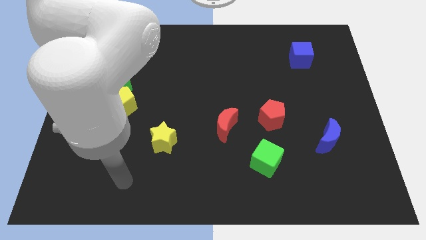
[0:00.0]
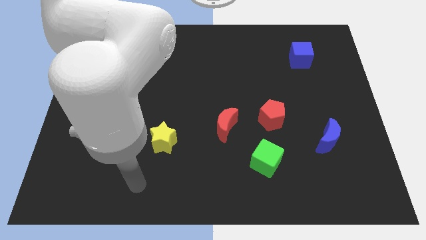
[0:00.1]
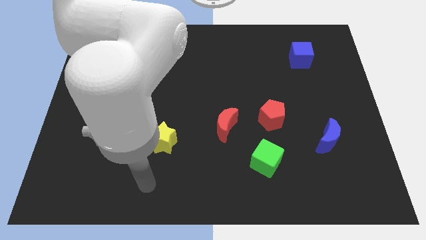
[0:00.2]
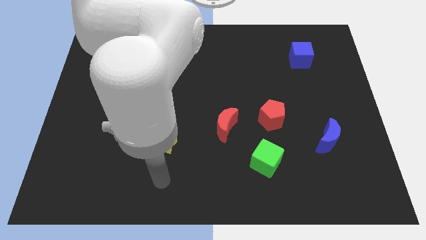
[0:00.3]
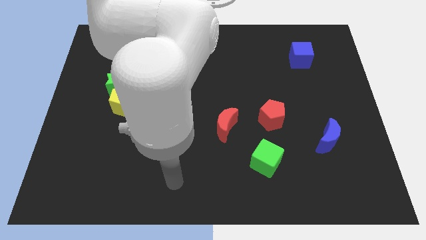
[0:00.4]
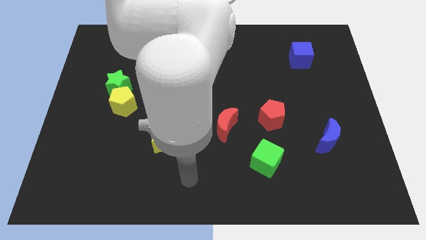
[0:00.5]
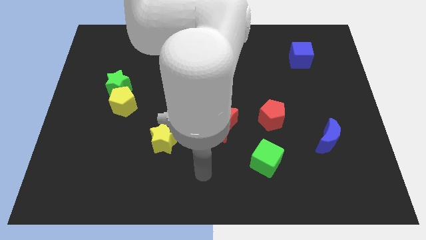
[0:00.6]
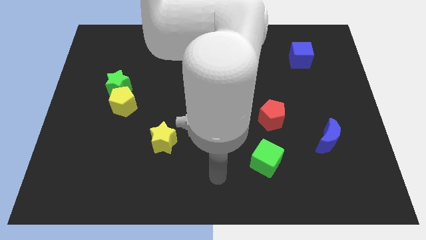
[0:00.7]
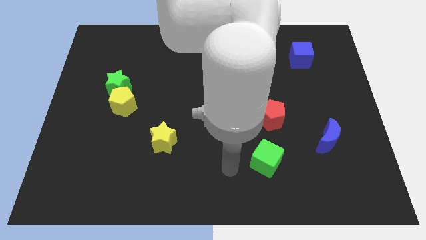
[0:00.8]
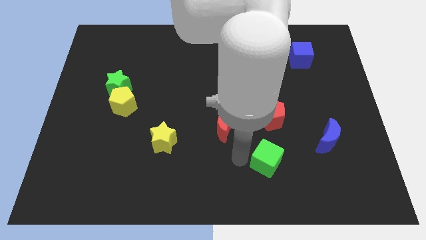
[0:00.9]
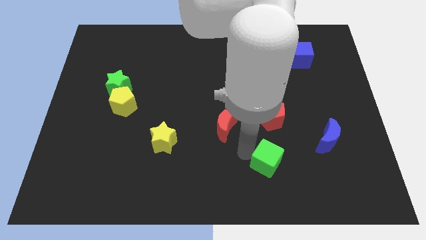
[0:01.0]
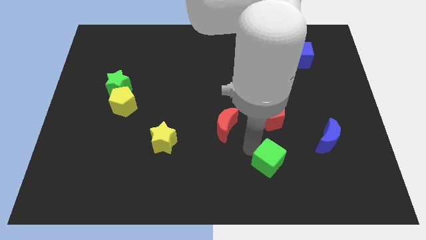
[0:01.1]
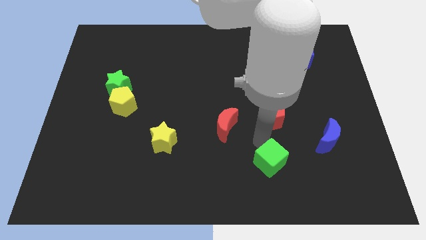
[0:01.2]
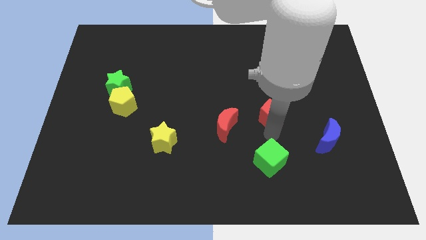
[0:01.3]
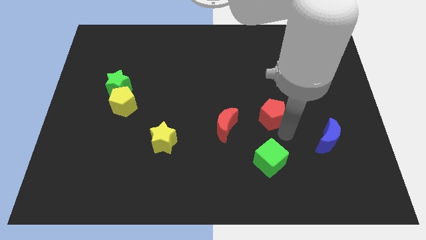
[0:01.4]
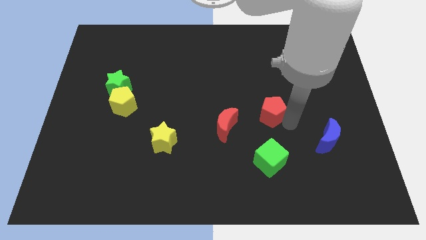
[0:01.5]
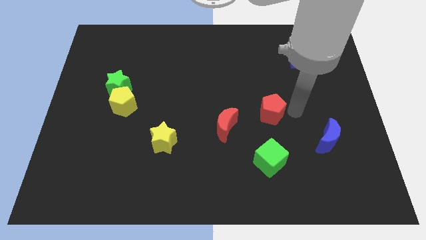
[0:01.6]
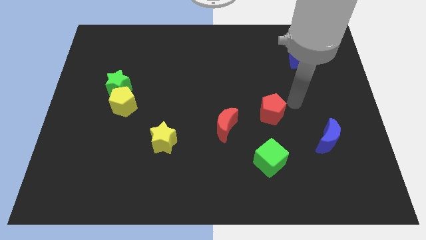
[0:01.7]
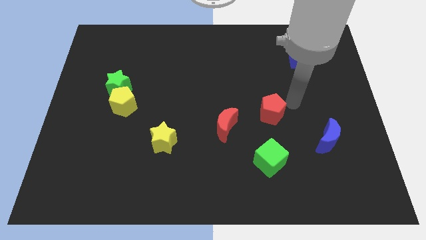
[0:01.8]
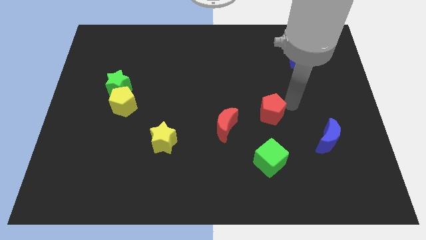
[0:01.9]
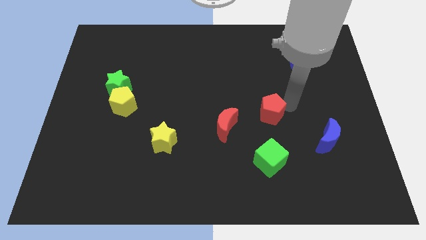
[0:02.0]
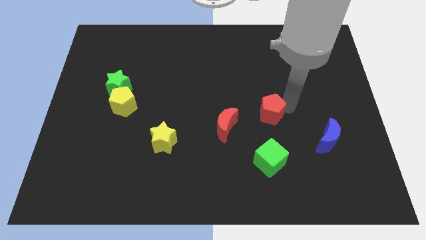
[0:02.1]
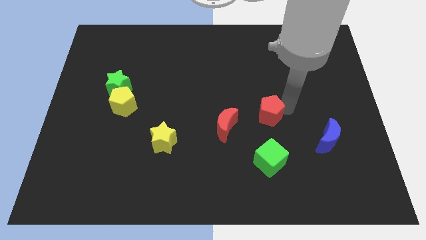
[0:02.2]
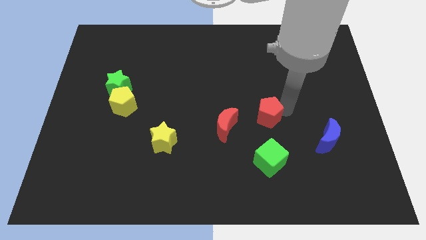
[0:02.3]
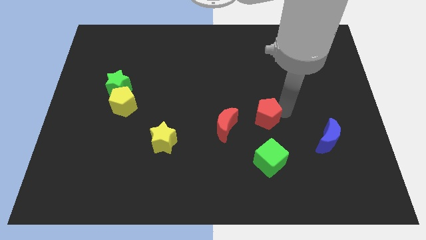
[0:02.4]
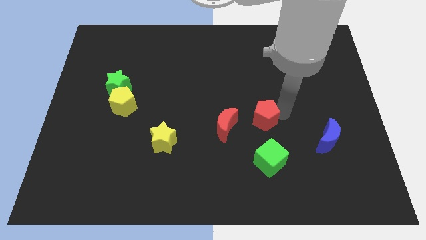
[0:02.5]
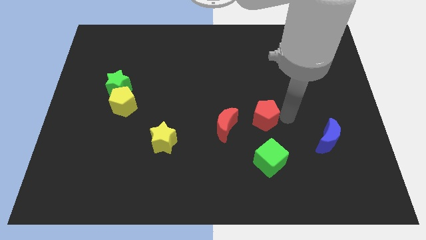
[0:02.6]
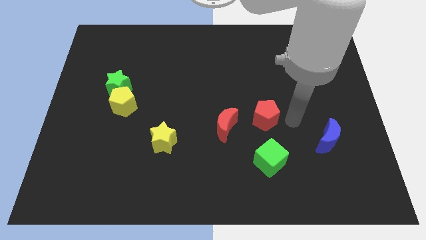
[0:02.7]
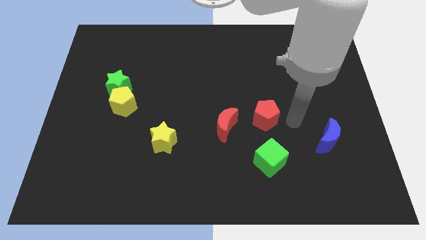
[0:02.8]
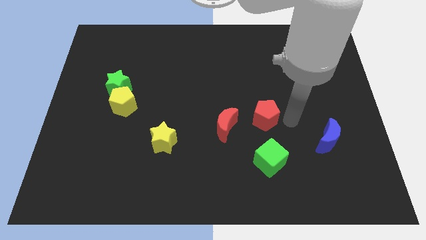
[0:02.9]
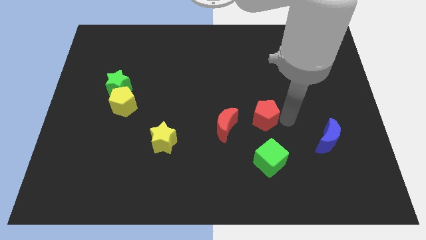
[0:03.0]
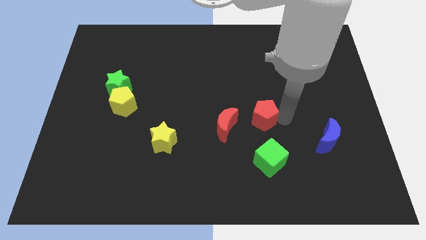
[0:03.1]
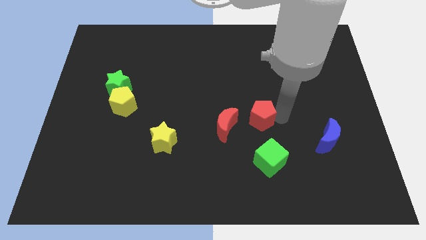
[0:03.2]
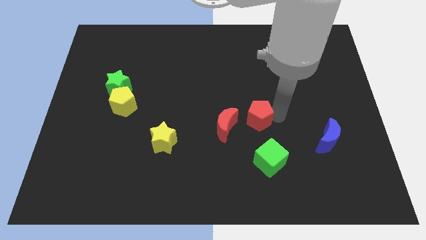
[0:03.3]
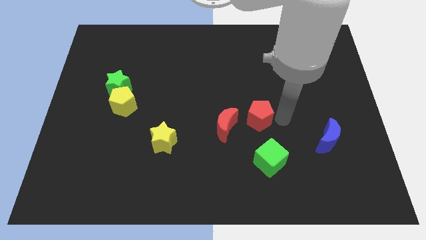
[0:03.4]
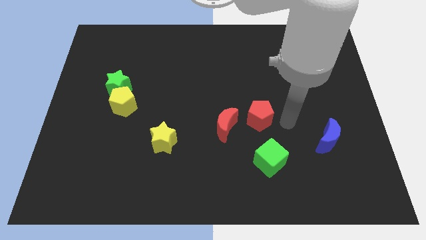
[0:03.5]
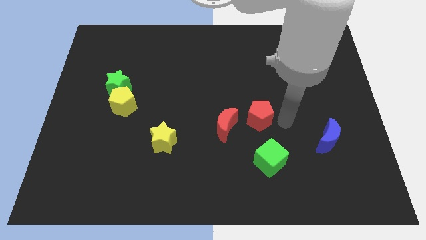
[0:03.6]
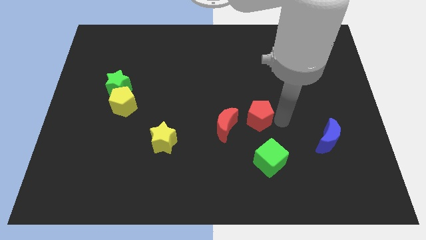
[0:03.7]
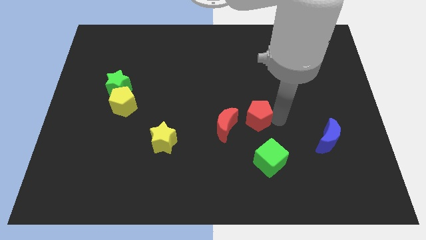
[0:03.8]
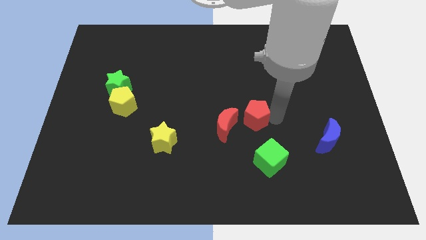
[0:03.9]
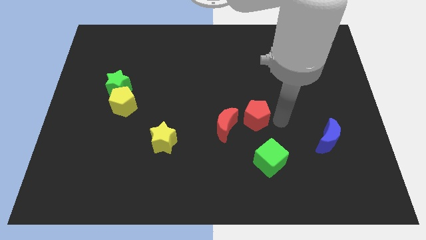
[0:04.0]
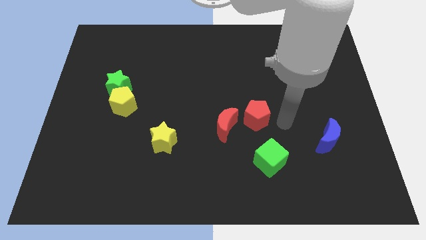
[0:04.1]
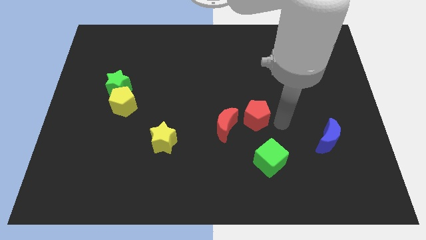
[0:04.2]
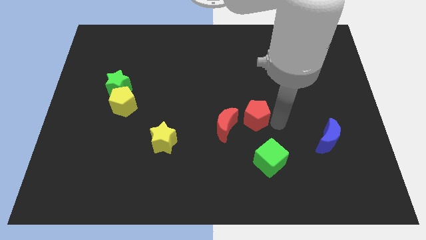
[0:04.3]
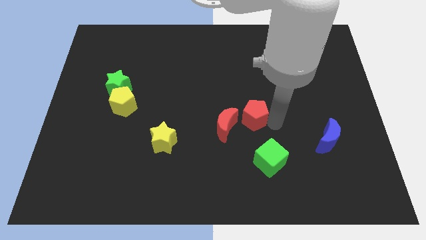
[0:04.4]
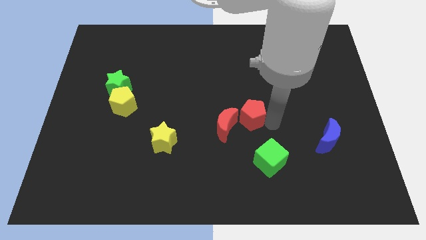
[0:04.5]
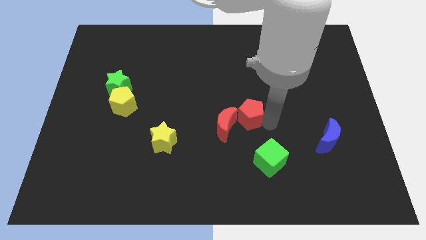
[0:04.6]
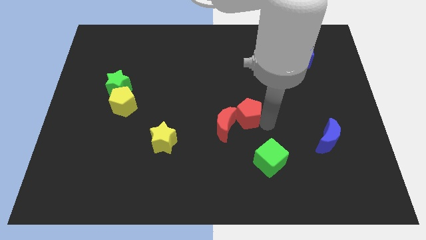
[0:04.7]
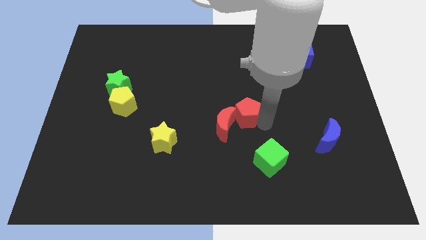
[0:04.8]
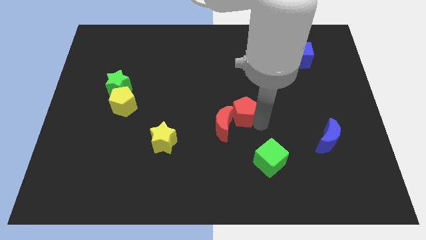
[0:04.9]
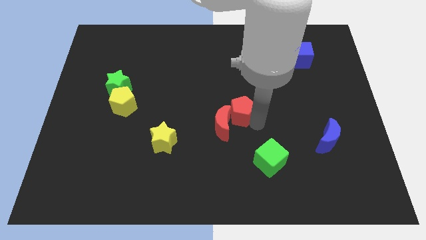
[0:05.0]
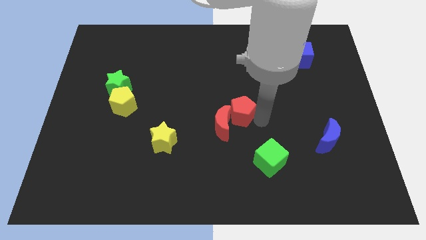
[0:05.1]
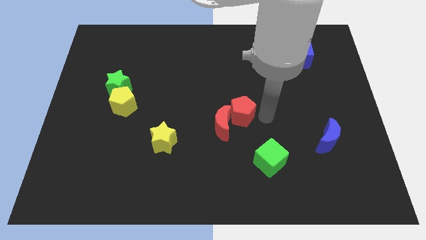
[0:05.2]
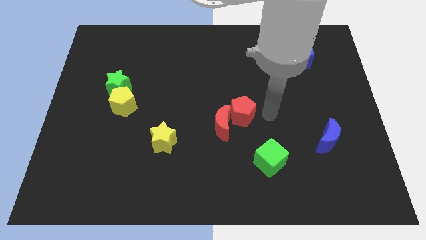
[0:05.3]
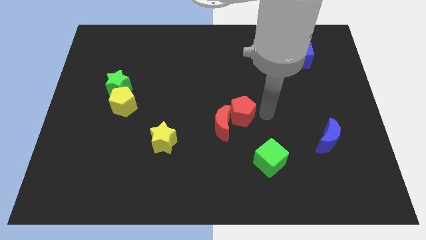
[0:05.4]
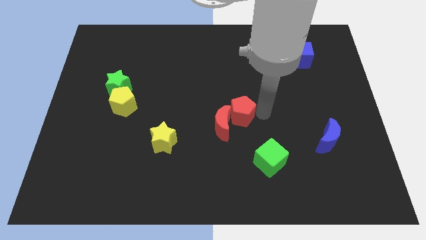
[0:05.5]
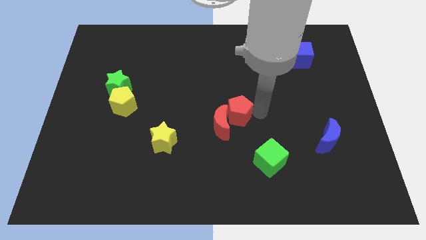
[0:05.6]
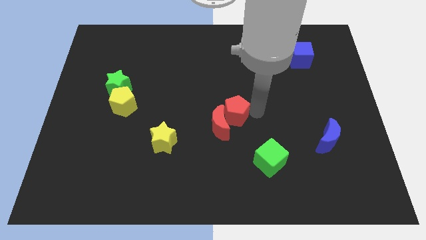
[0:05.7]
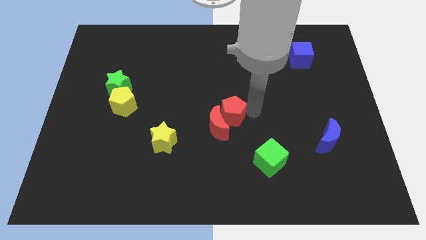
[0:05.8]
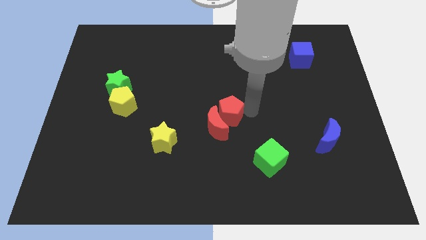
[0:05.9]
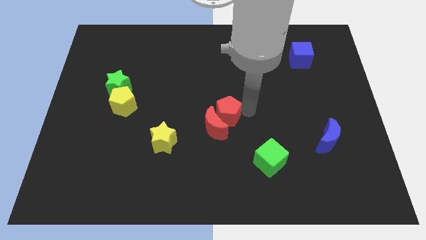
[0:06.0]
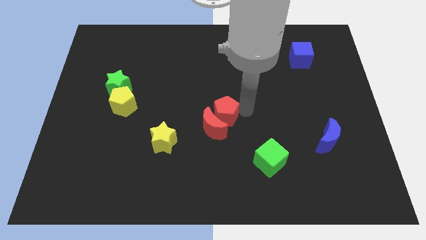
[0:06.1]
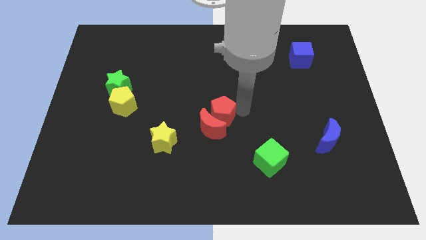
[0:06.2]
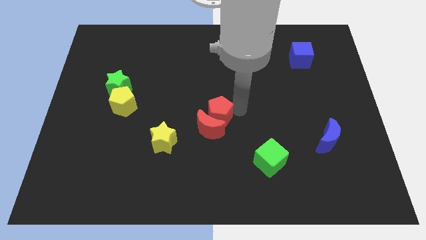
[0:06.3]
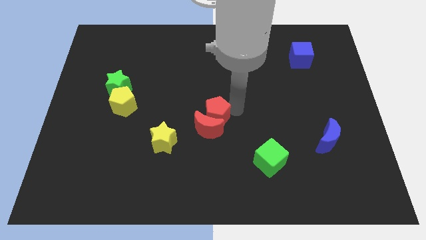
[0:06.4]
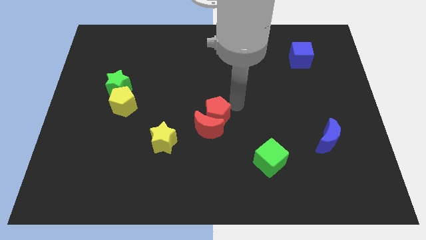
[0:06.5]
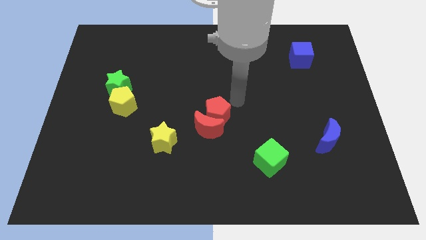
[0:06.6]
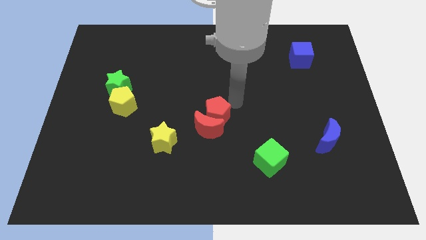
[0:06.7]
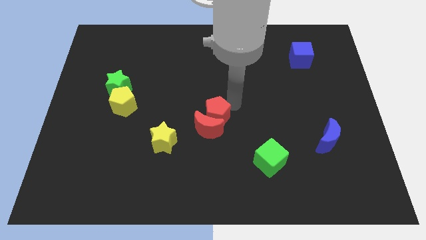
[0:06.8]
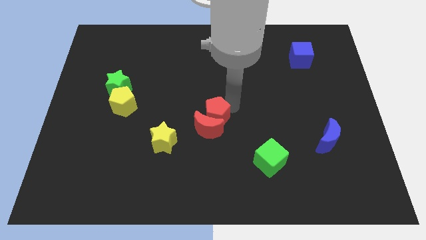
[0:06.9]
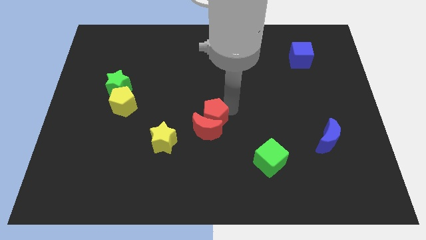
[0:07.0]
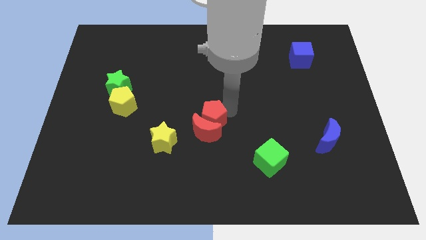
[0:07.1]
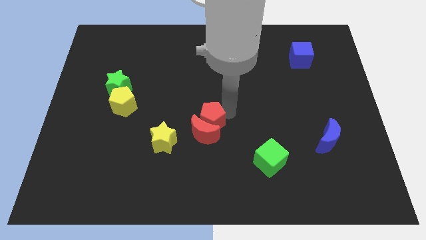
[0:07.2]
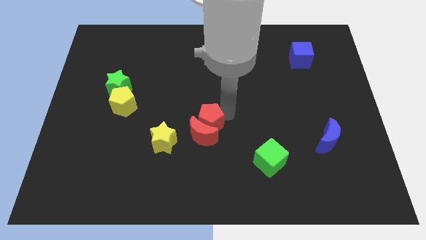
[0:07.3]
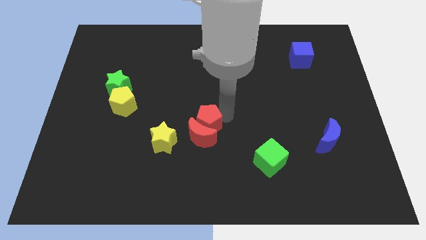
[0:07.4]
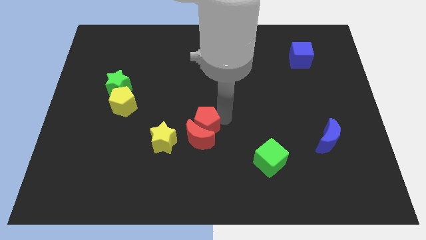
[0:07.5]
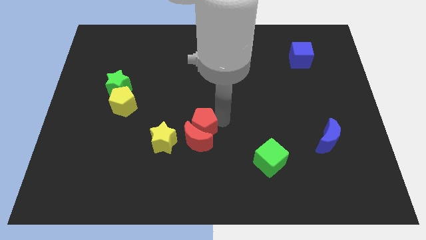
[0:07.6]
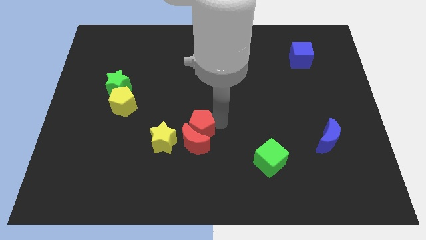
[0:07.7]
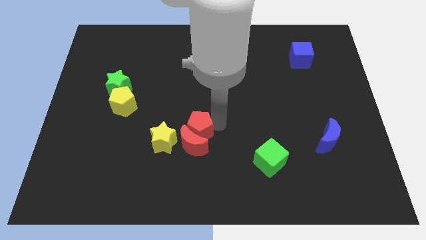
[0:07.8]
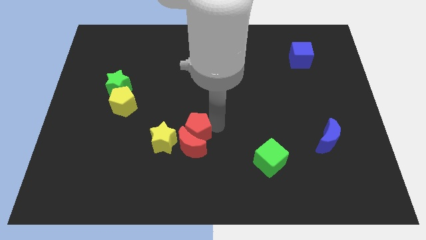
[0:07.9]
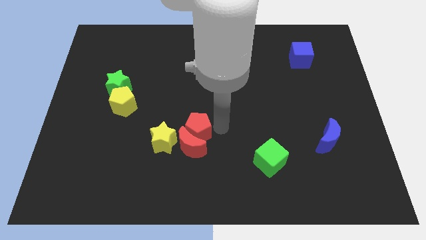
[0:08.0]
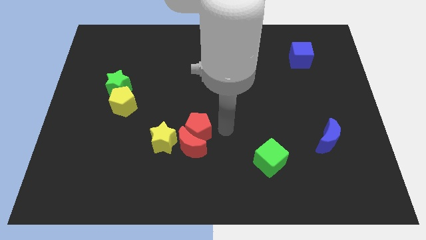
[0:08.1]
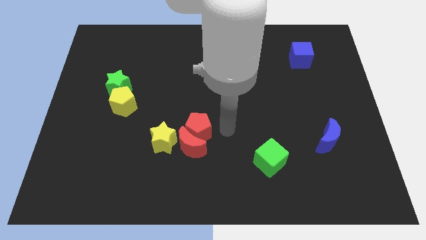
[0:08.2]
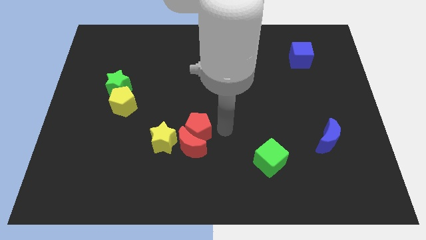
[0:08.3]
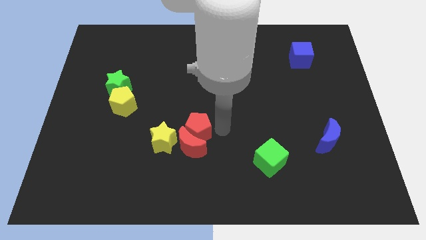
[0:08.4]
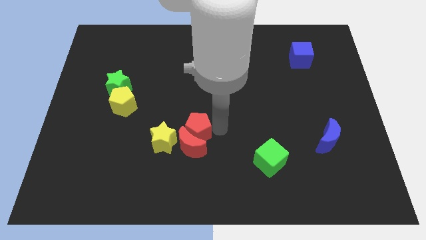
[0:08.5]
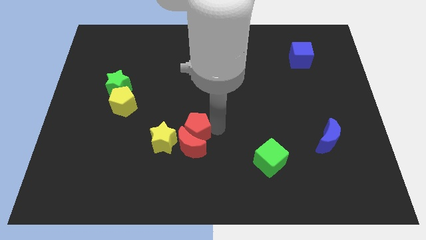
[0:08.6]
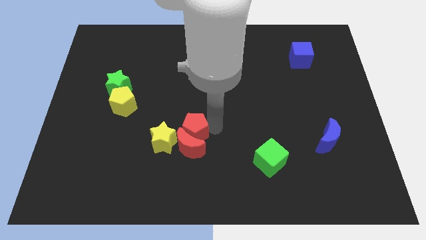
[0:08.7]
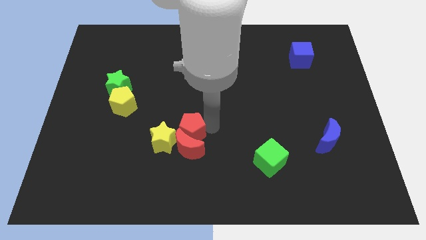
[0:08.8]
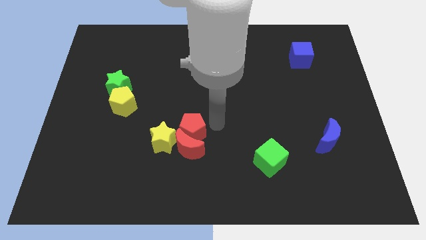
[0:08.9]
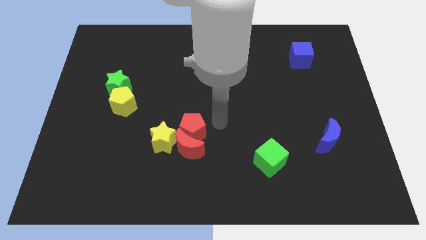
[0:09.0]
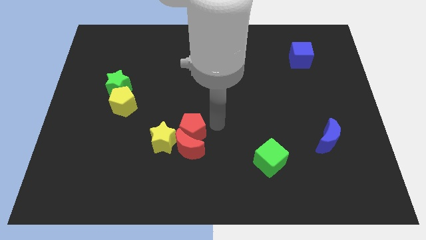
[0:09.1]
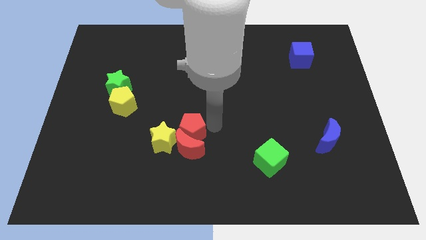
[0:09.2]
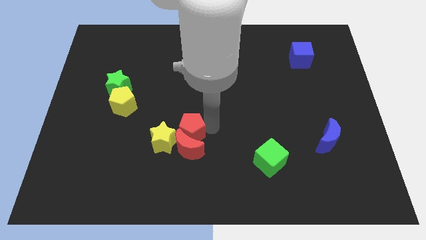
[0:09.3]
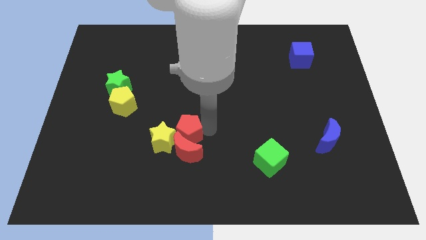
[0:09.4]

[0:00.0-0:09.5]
push the red pentagon next to the yellow star
